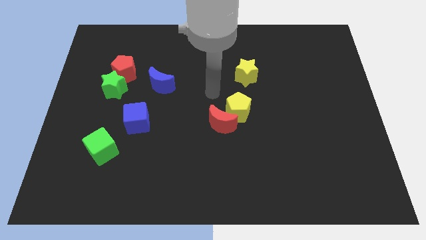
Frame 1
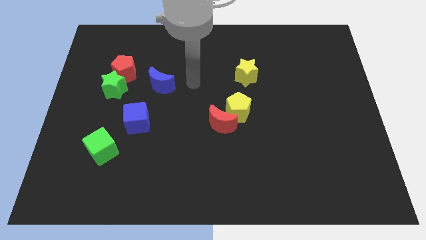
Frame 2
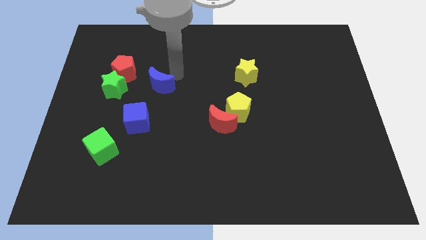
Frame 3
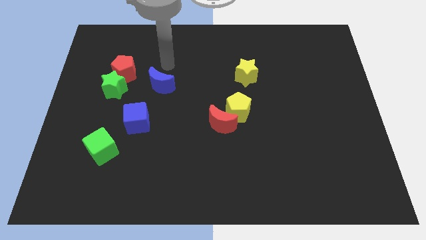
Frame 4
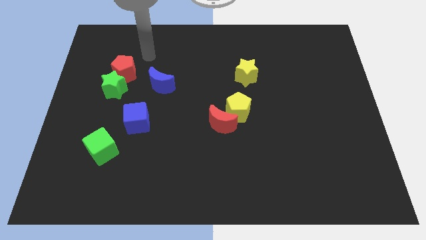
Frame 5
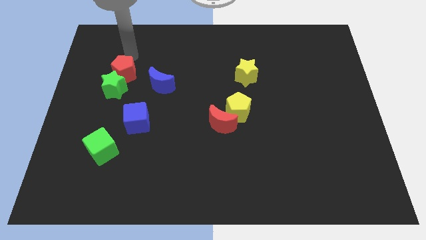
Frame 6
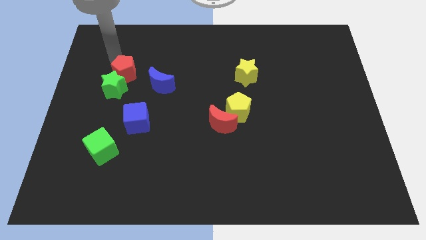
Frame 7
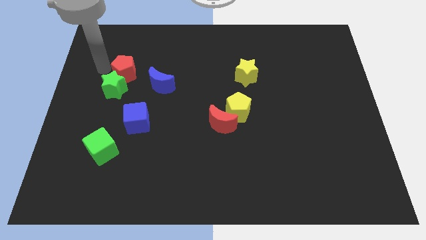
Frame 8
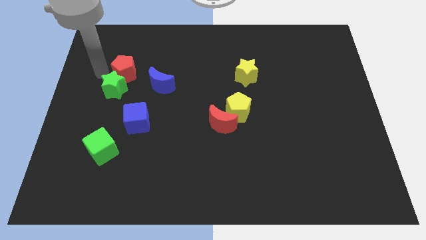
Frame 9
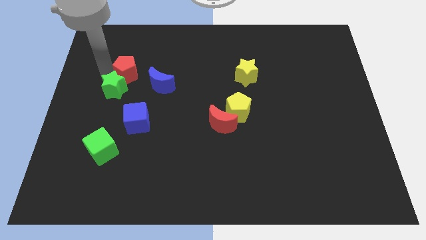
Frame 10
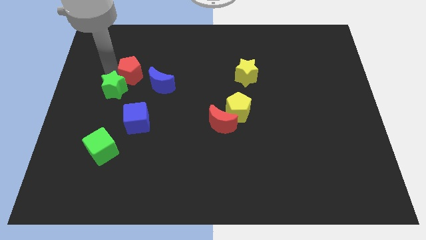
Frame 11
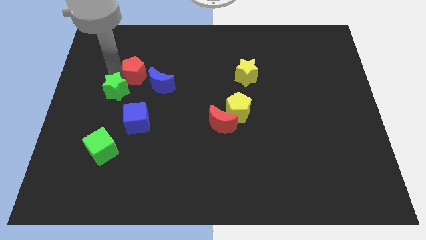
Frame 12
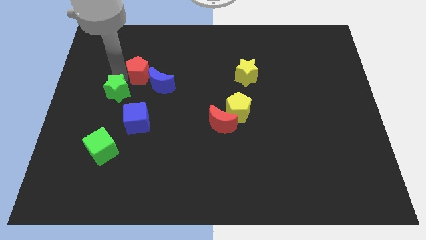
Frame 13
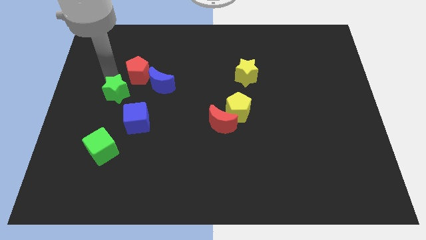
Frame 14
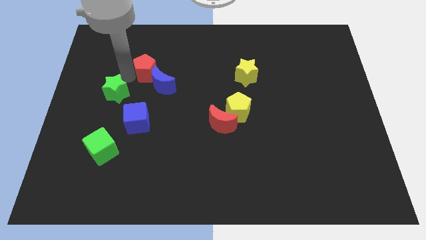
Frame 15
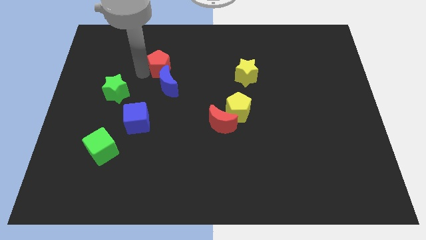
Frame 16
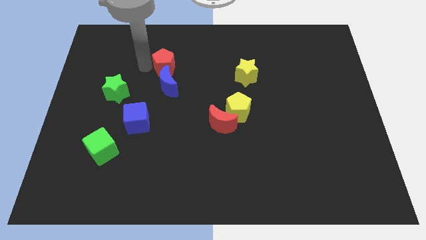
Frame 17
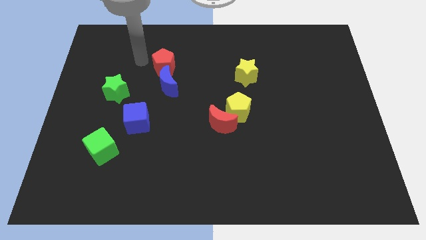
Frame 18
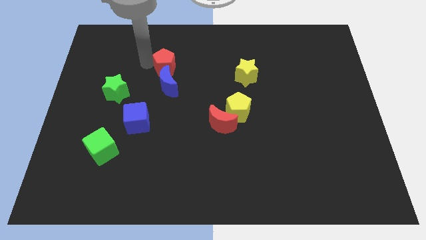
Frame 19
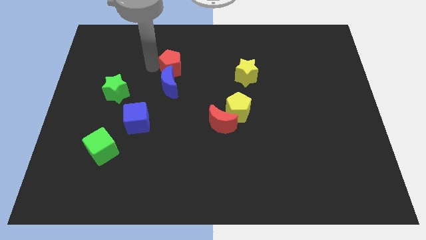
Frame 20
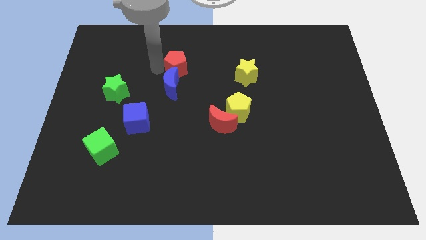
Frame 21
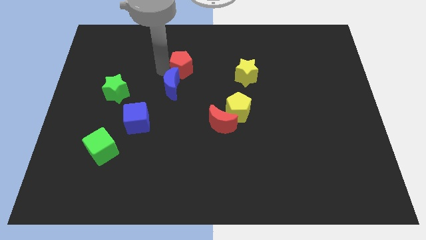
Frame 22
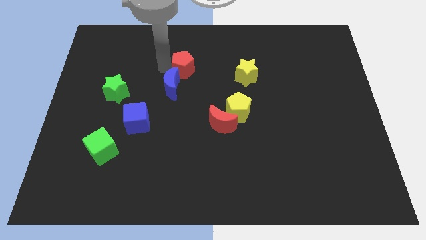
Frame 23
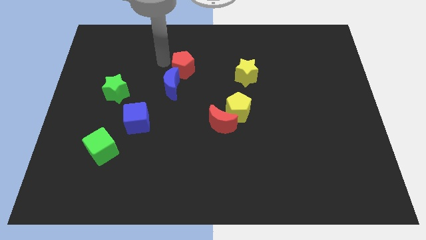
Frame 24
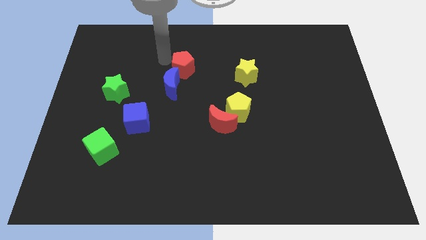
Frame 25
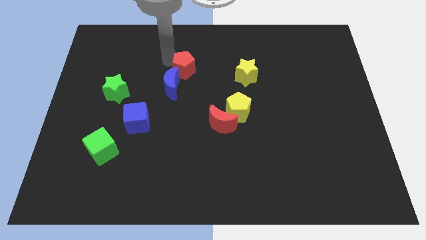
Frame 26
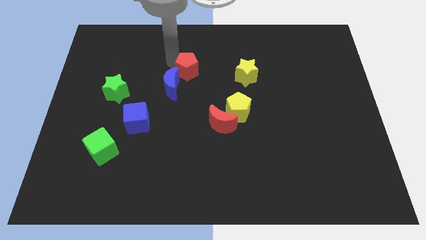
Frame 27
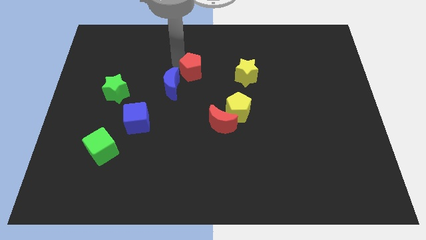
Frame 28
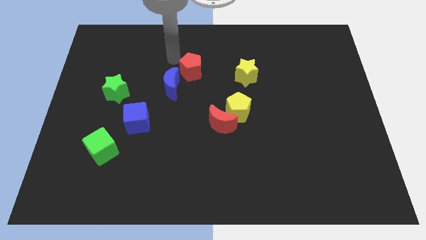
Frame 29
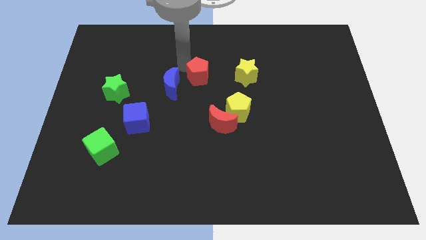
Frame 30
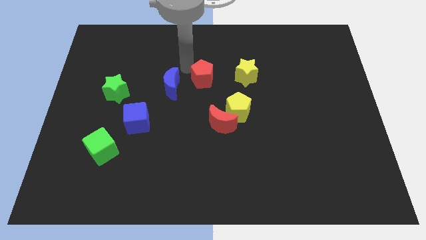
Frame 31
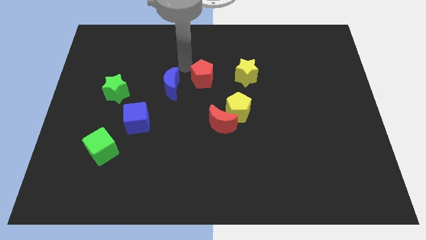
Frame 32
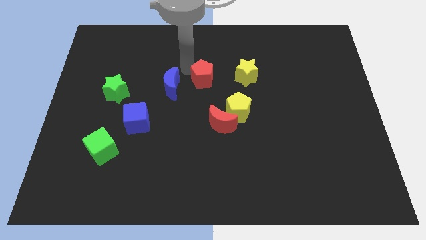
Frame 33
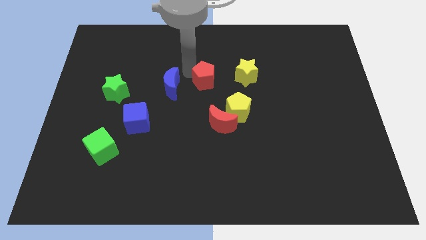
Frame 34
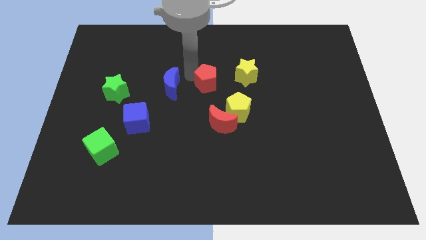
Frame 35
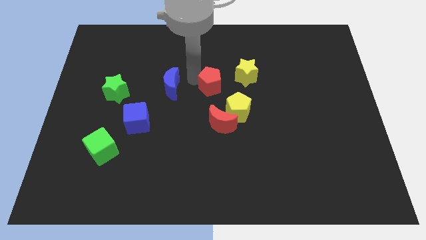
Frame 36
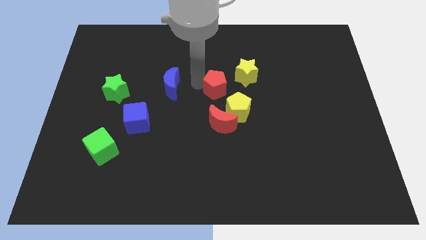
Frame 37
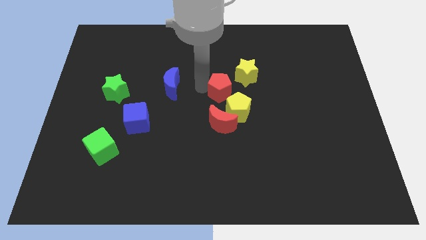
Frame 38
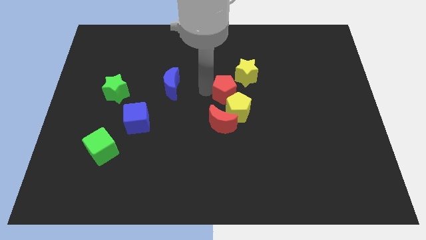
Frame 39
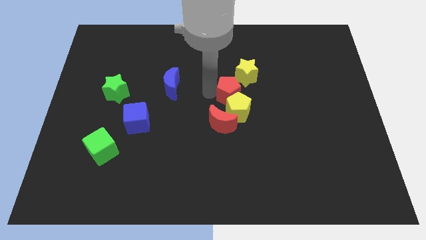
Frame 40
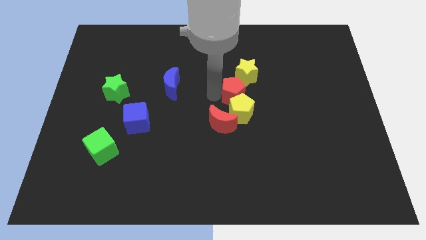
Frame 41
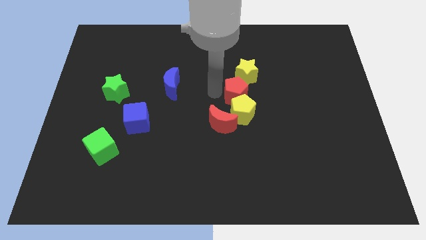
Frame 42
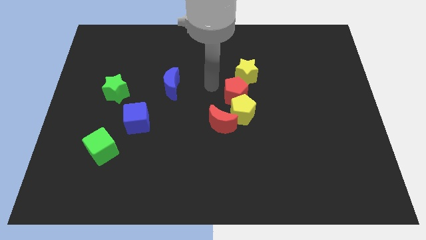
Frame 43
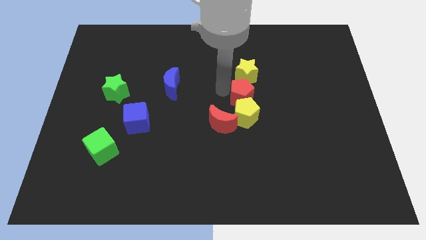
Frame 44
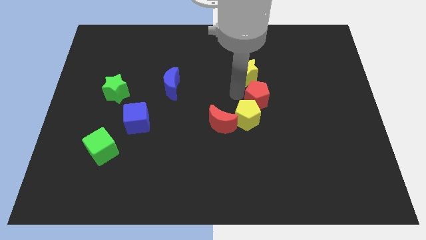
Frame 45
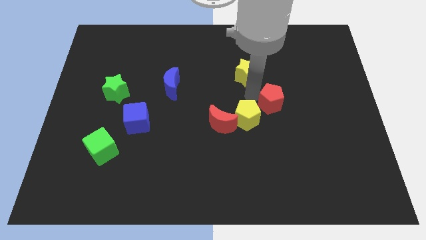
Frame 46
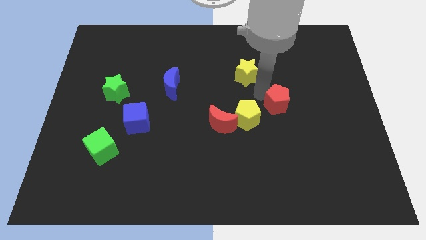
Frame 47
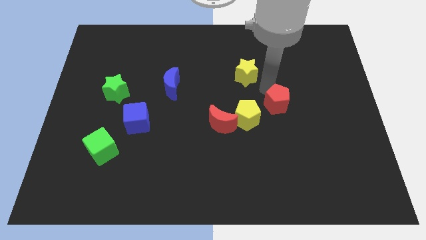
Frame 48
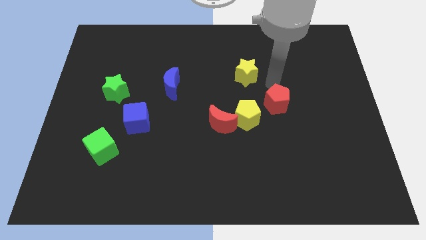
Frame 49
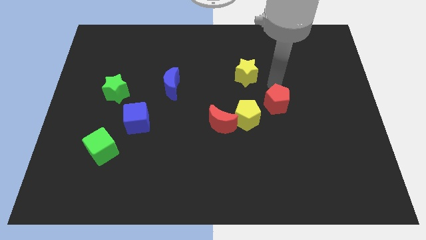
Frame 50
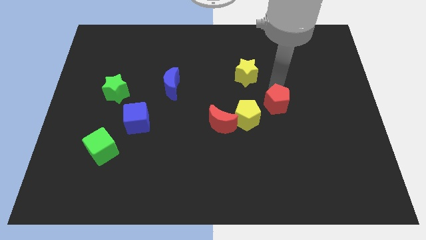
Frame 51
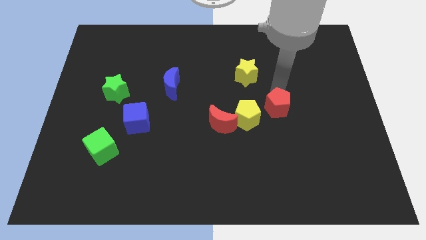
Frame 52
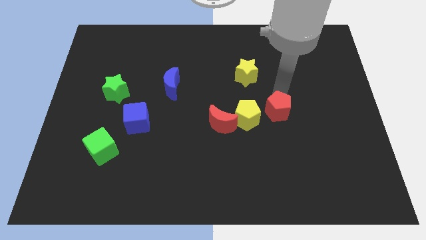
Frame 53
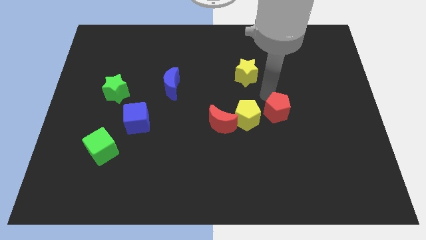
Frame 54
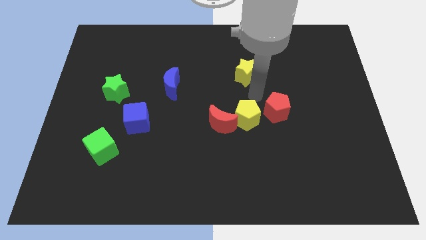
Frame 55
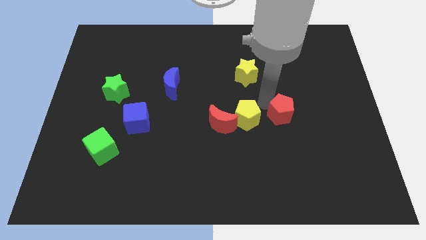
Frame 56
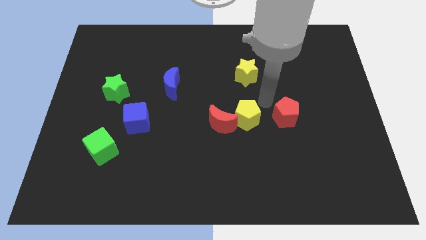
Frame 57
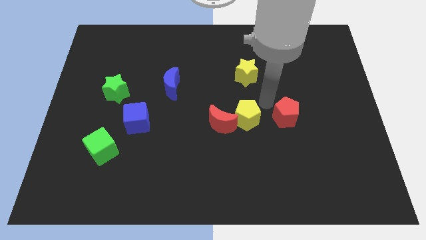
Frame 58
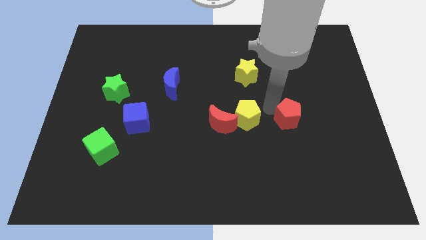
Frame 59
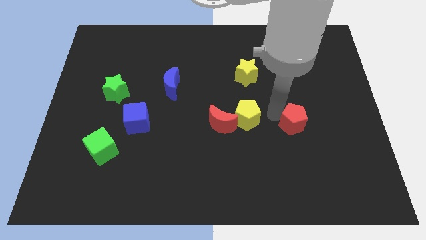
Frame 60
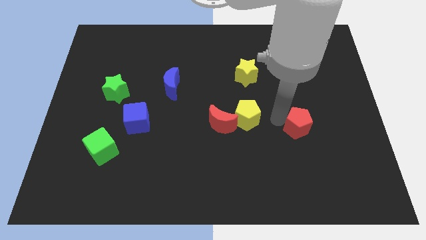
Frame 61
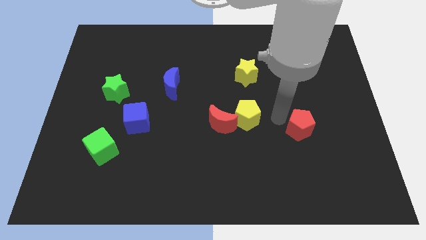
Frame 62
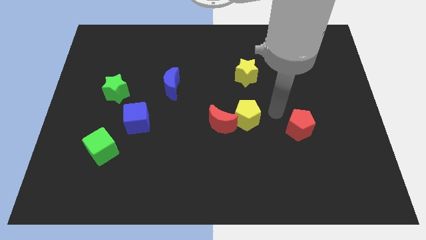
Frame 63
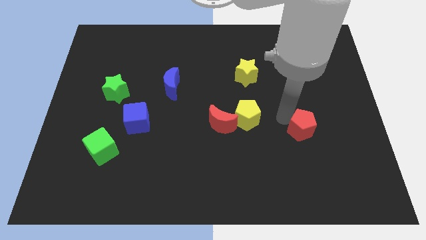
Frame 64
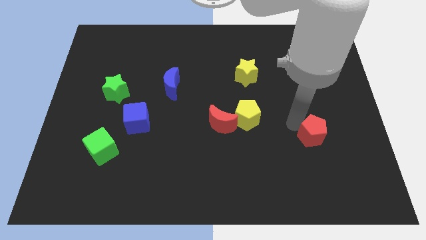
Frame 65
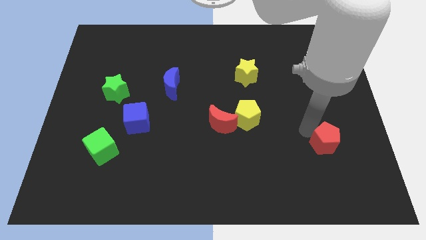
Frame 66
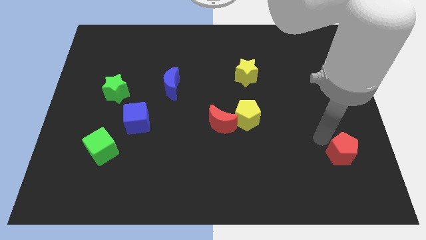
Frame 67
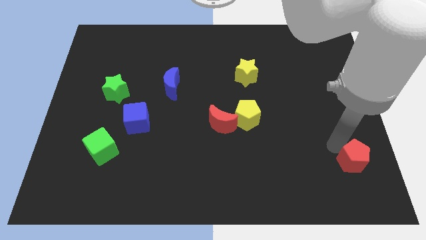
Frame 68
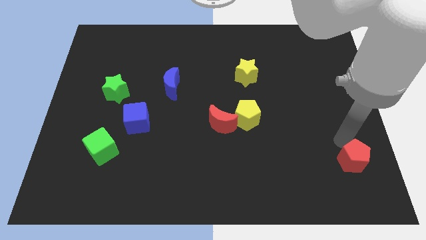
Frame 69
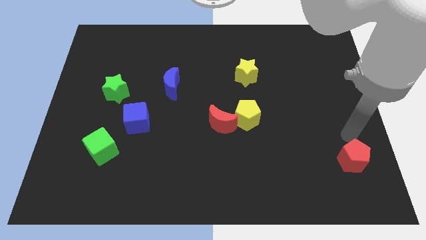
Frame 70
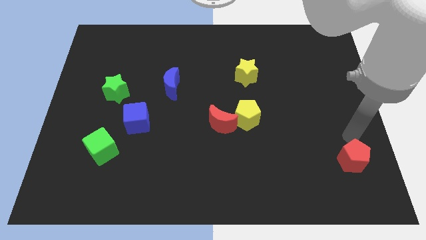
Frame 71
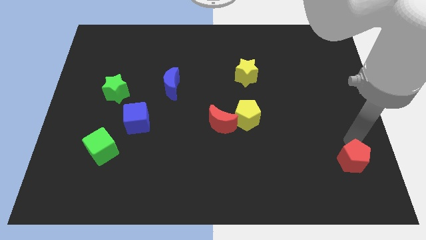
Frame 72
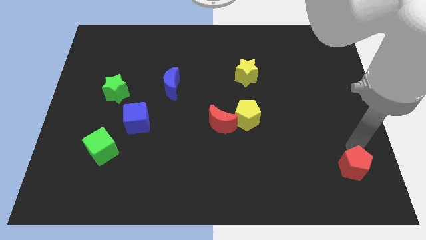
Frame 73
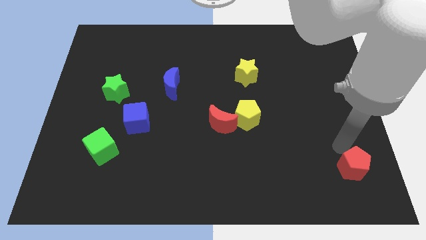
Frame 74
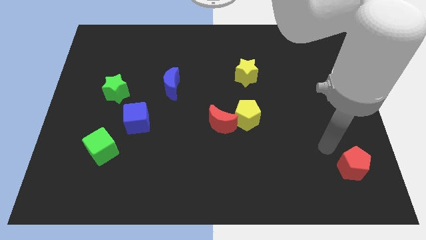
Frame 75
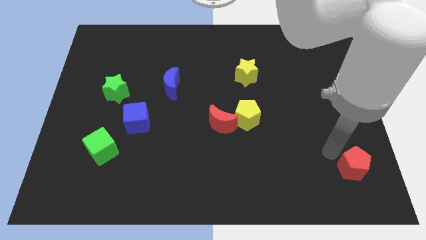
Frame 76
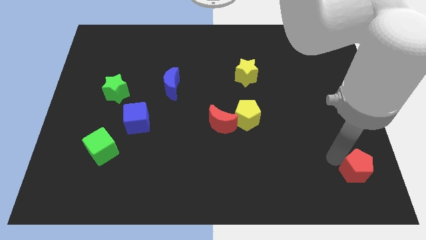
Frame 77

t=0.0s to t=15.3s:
move the red pentagon to the bottom right of the board
